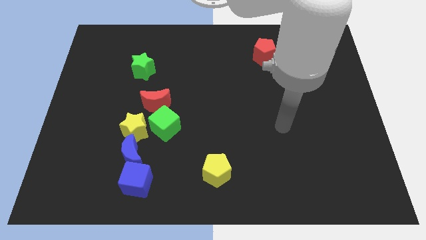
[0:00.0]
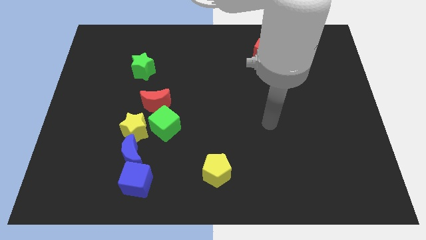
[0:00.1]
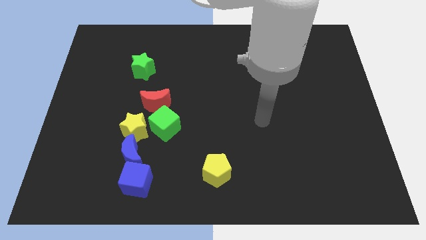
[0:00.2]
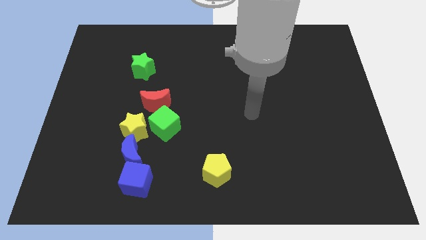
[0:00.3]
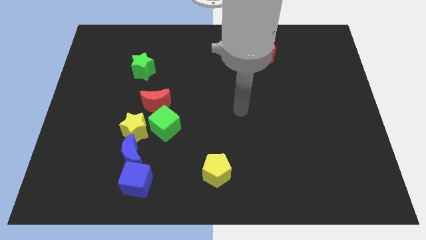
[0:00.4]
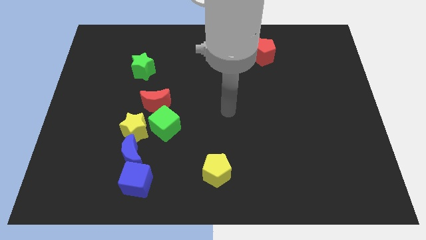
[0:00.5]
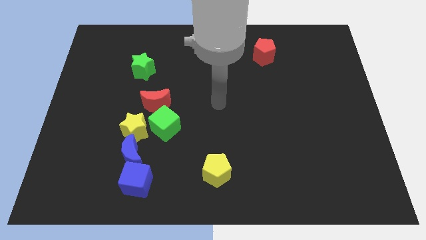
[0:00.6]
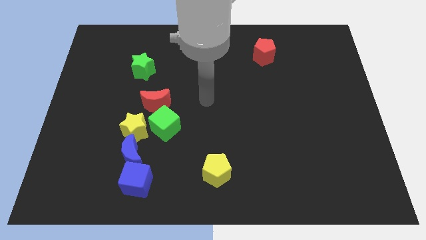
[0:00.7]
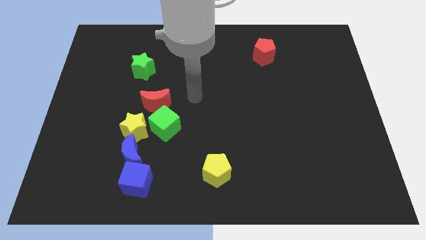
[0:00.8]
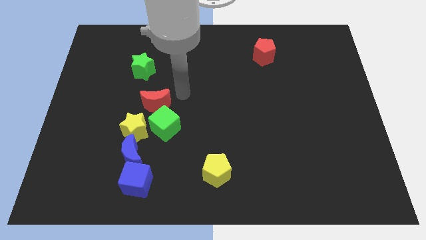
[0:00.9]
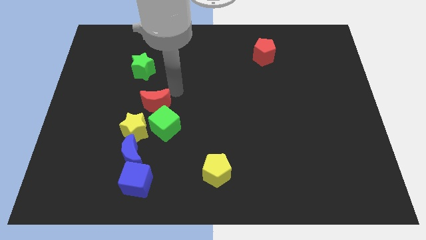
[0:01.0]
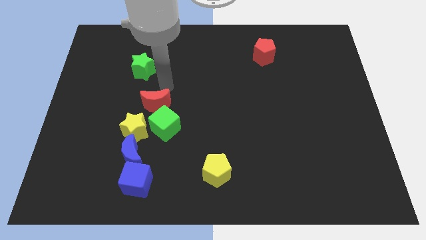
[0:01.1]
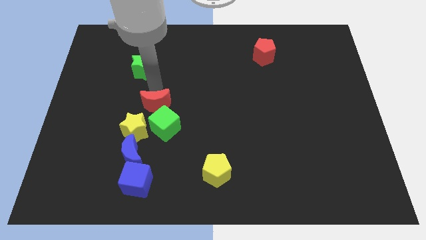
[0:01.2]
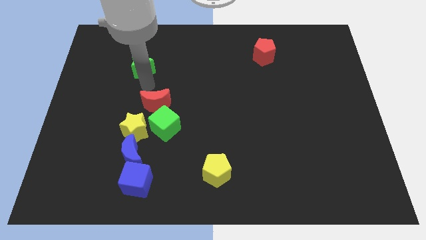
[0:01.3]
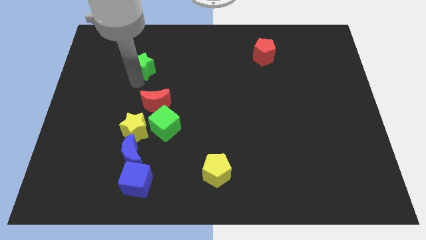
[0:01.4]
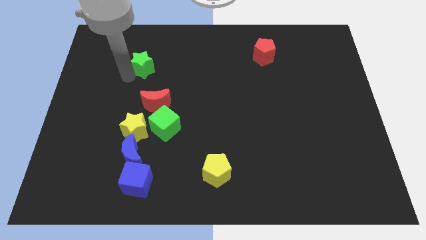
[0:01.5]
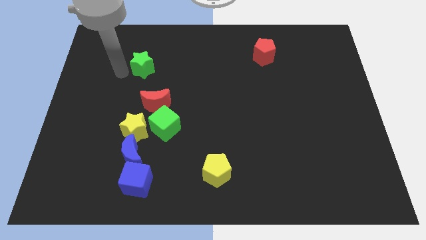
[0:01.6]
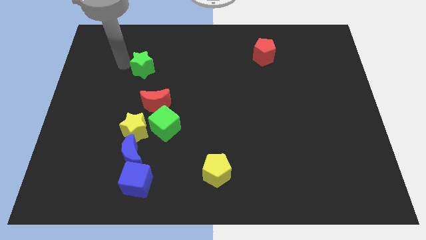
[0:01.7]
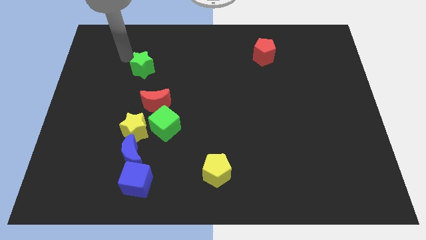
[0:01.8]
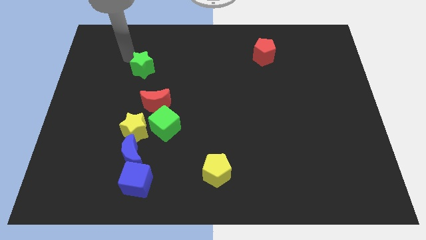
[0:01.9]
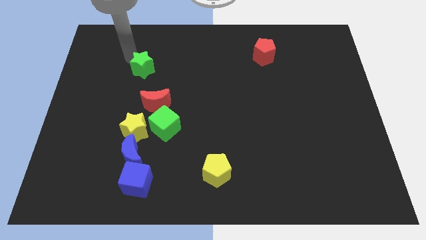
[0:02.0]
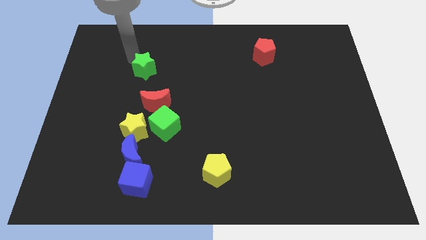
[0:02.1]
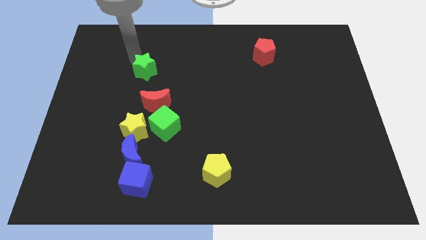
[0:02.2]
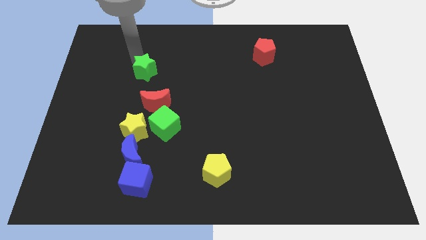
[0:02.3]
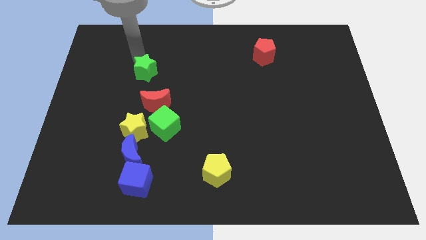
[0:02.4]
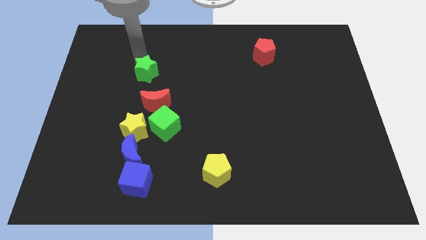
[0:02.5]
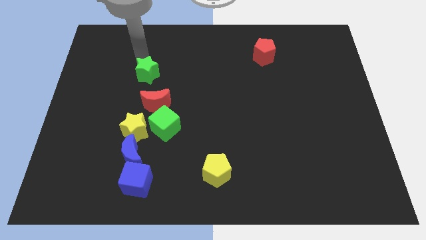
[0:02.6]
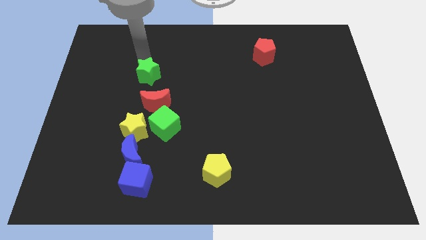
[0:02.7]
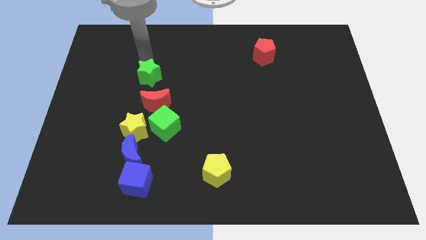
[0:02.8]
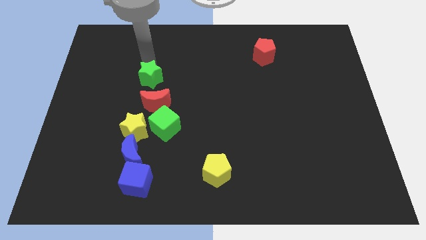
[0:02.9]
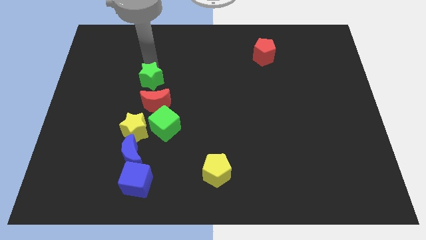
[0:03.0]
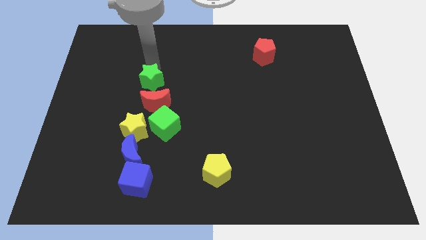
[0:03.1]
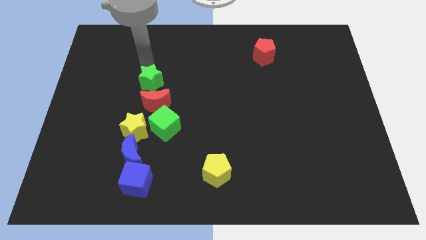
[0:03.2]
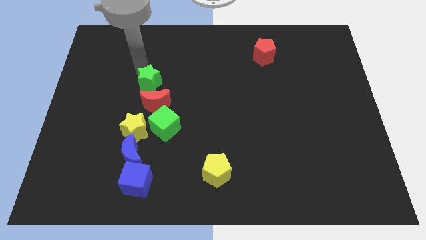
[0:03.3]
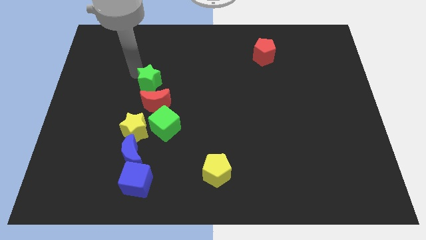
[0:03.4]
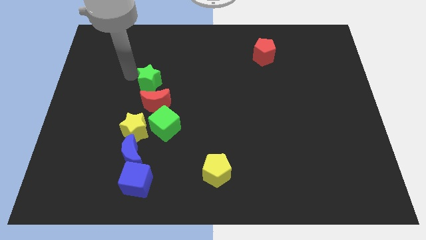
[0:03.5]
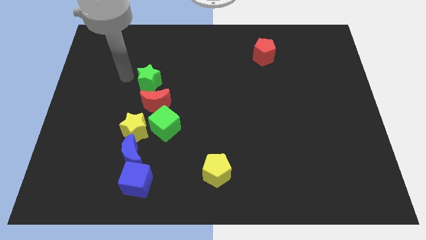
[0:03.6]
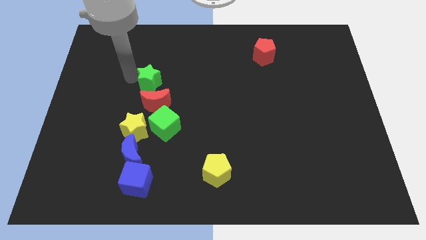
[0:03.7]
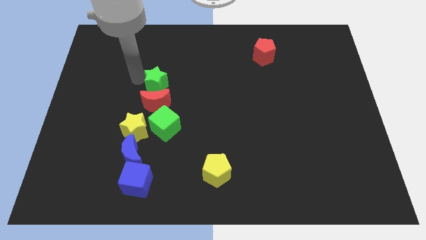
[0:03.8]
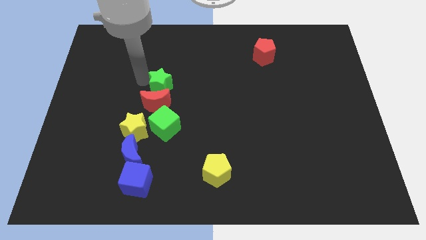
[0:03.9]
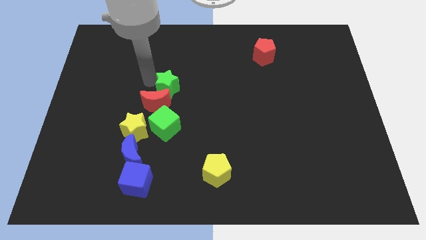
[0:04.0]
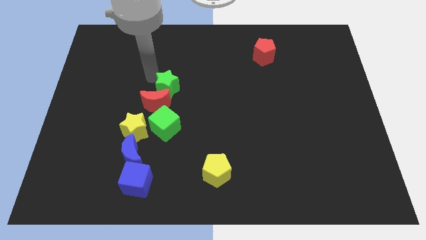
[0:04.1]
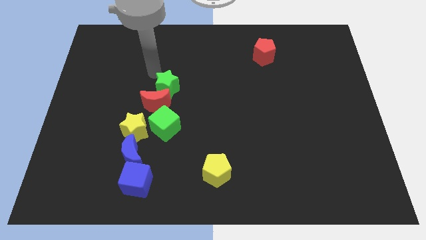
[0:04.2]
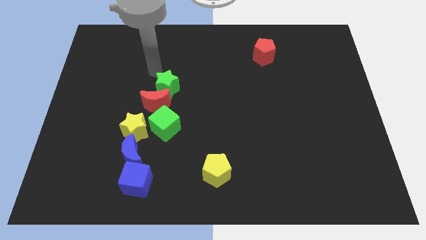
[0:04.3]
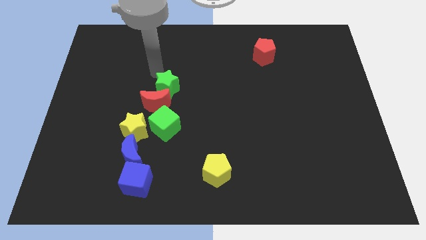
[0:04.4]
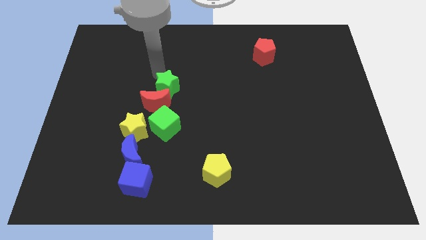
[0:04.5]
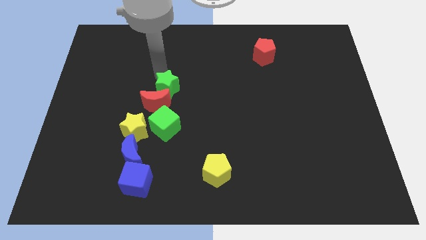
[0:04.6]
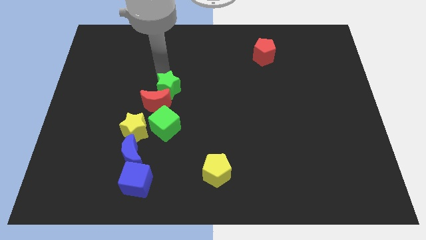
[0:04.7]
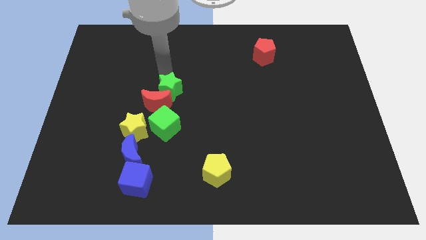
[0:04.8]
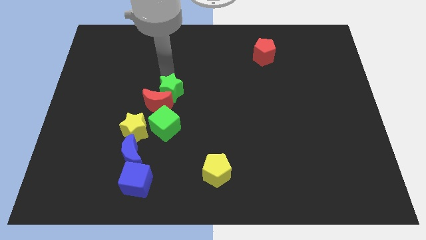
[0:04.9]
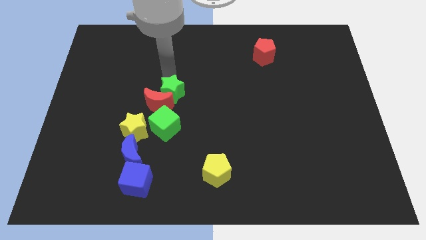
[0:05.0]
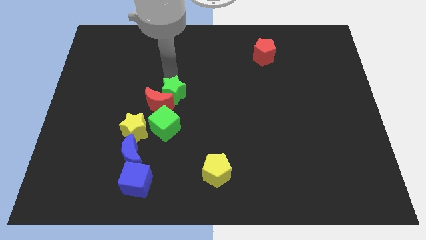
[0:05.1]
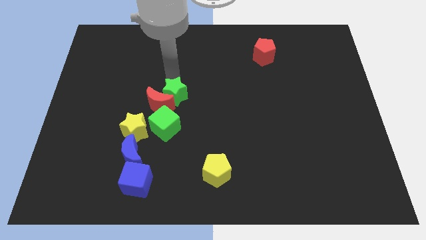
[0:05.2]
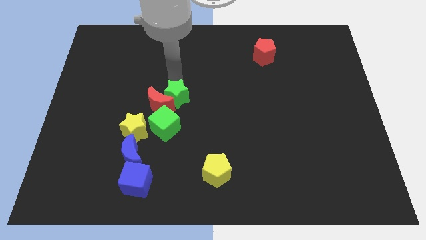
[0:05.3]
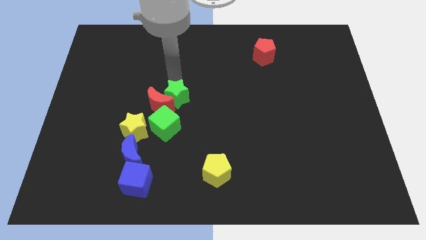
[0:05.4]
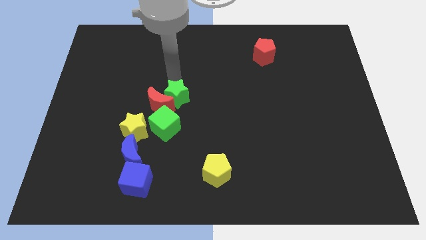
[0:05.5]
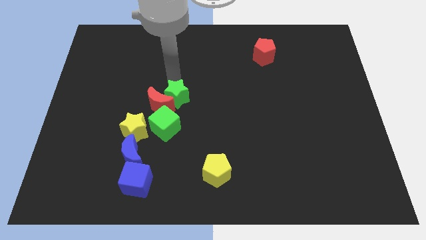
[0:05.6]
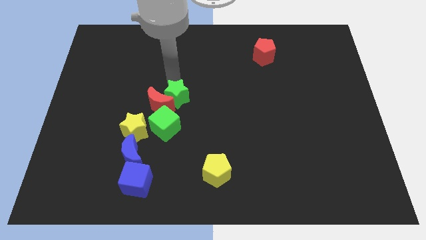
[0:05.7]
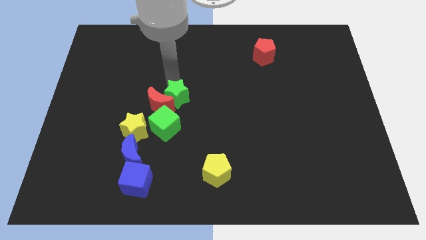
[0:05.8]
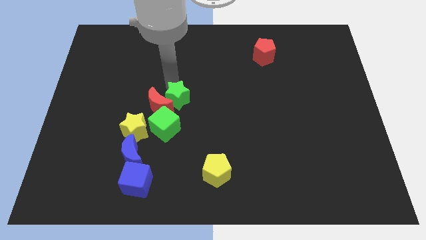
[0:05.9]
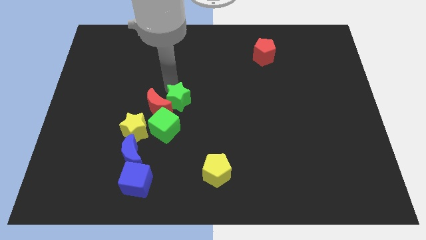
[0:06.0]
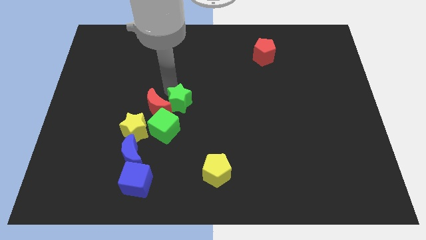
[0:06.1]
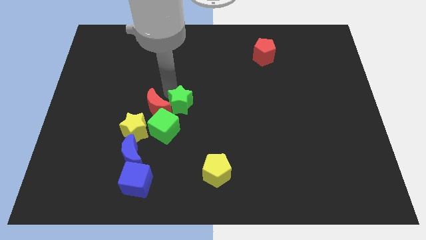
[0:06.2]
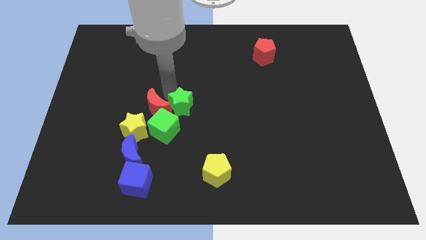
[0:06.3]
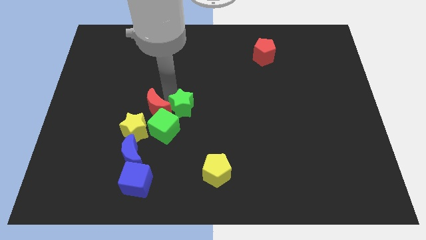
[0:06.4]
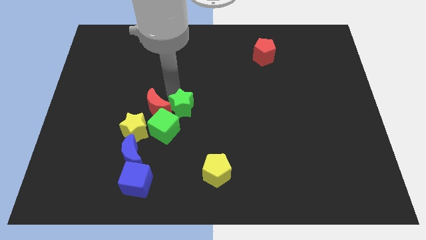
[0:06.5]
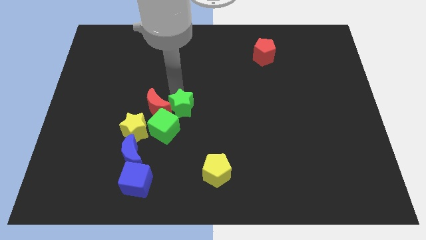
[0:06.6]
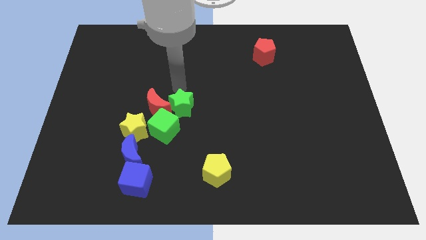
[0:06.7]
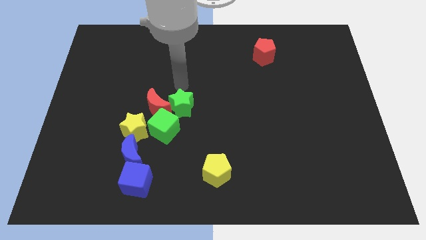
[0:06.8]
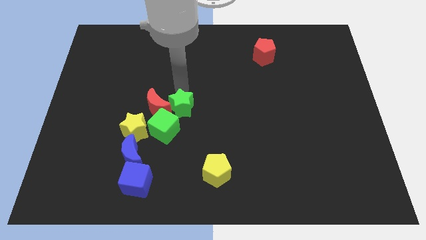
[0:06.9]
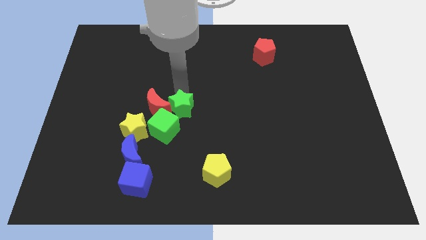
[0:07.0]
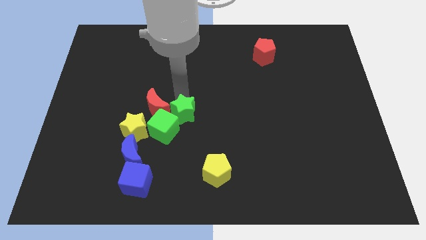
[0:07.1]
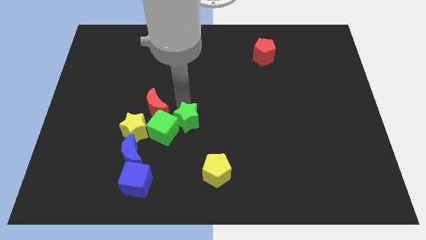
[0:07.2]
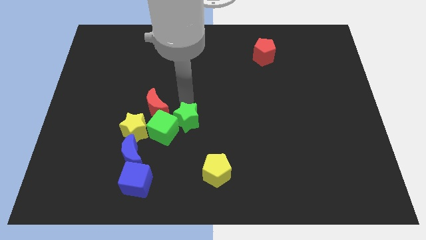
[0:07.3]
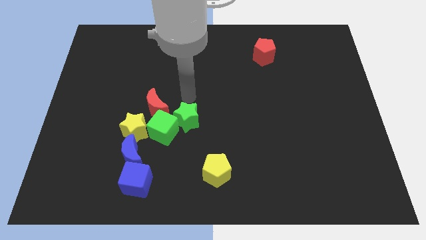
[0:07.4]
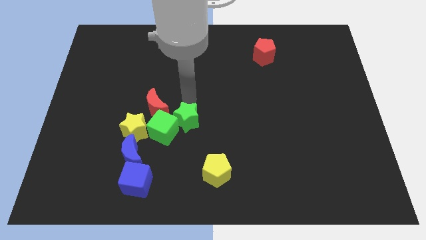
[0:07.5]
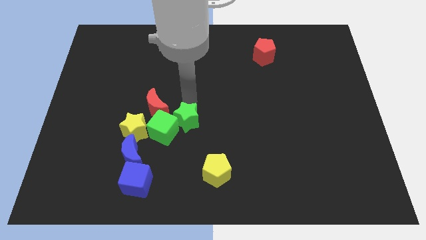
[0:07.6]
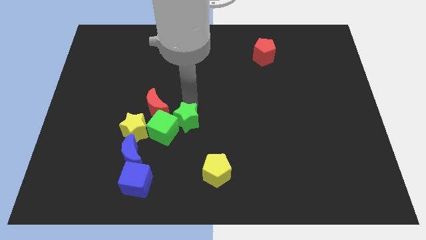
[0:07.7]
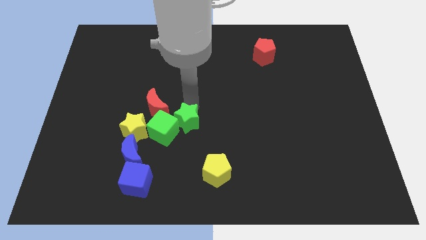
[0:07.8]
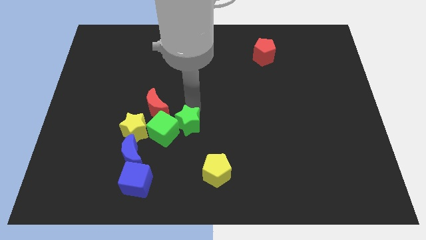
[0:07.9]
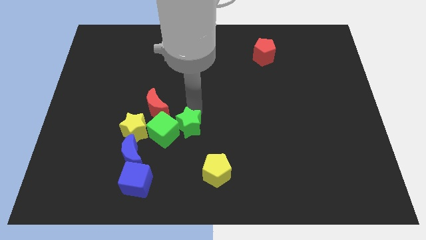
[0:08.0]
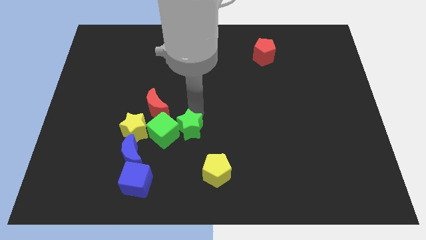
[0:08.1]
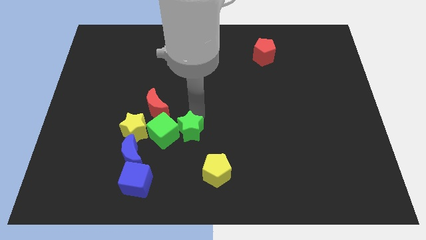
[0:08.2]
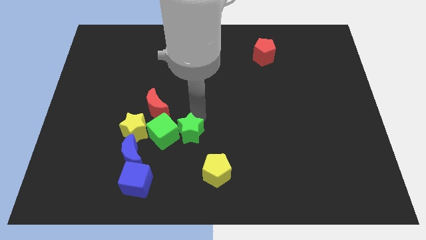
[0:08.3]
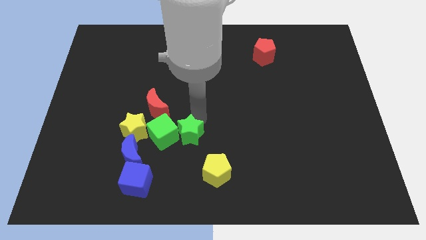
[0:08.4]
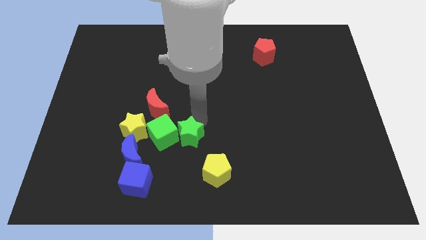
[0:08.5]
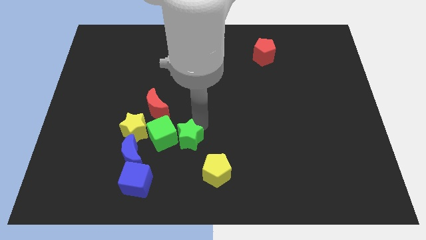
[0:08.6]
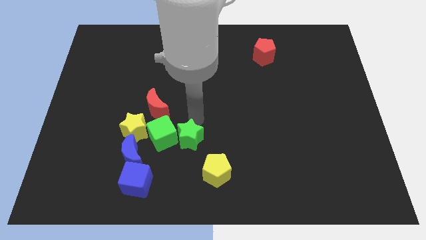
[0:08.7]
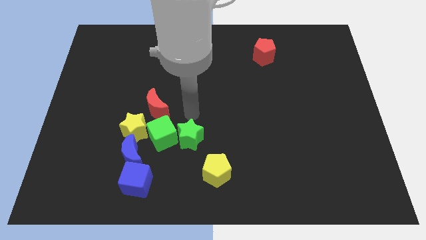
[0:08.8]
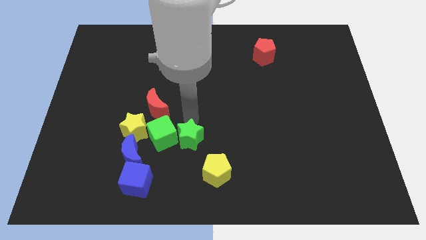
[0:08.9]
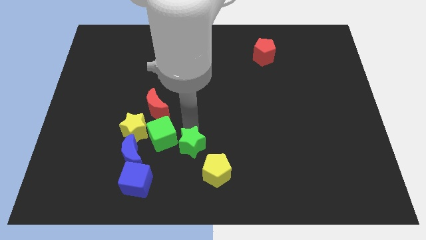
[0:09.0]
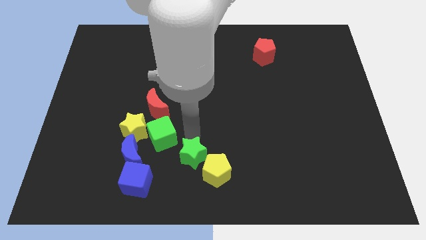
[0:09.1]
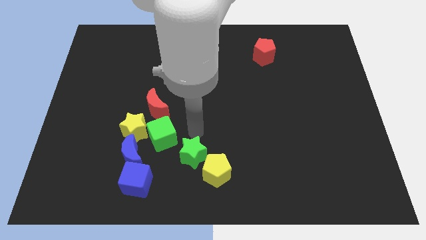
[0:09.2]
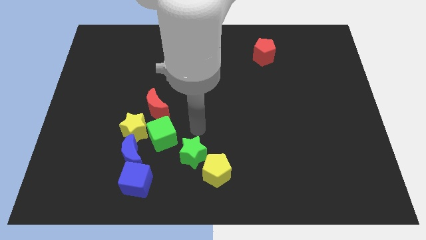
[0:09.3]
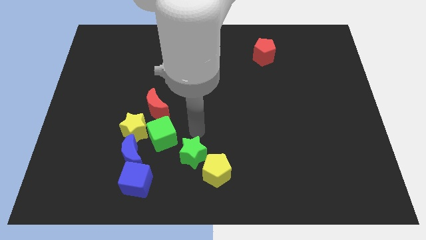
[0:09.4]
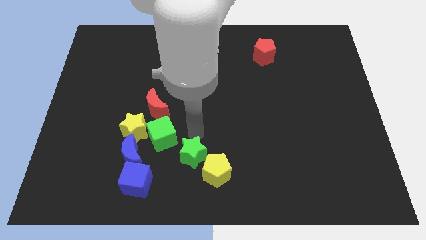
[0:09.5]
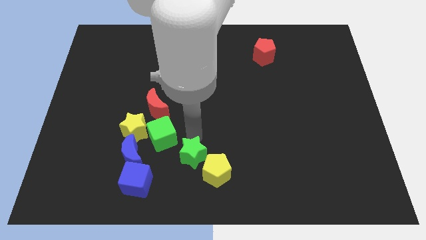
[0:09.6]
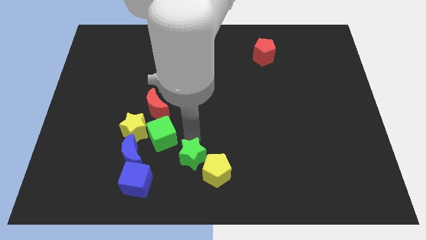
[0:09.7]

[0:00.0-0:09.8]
put the green star to the bottom side
